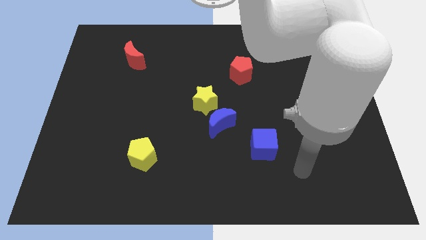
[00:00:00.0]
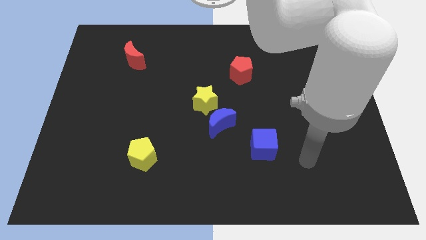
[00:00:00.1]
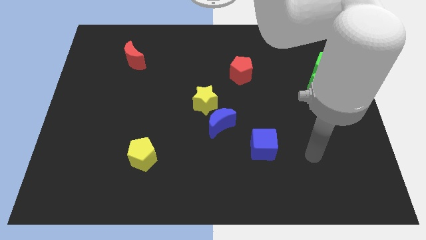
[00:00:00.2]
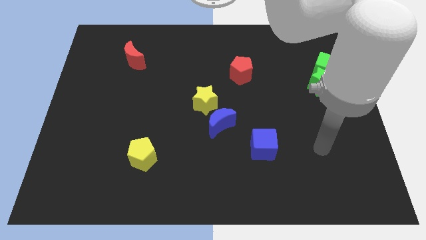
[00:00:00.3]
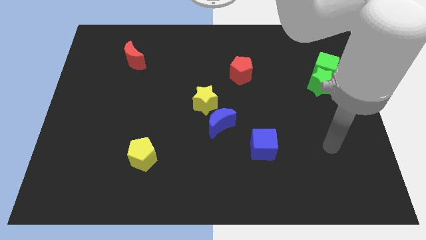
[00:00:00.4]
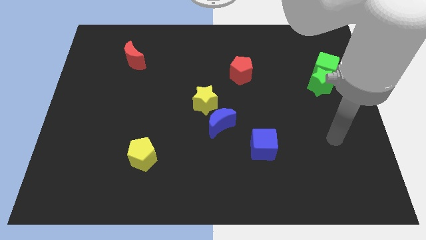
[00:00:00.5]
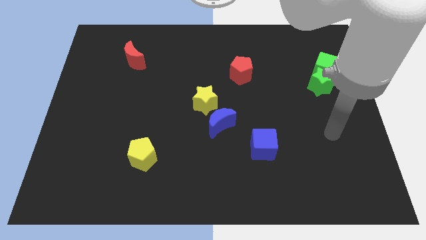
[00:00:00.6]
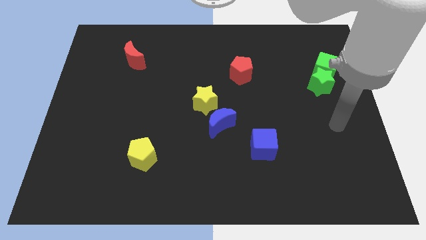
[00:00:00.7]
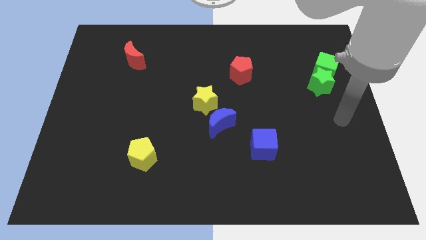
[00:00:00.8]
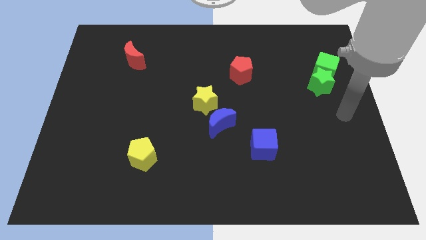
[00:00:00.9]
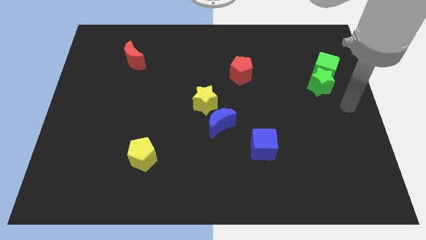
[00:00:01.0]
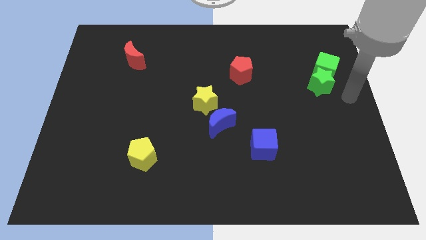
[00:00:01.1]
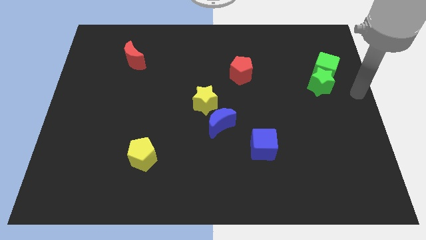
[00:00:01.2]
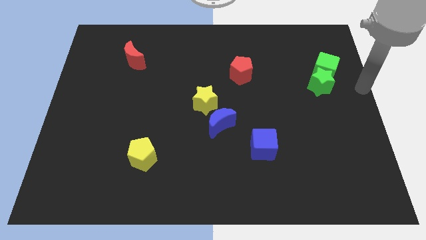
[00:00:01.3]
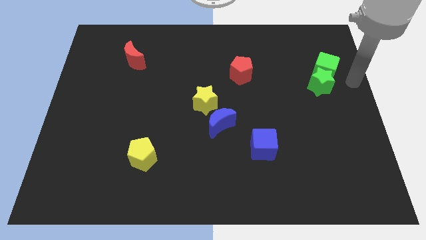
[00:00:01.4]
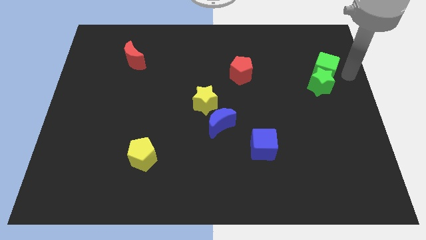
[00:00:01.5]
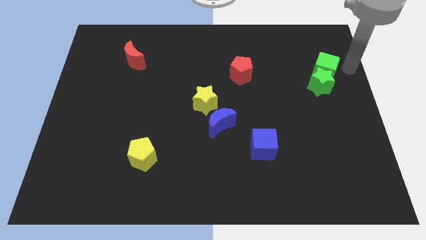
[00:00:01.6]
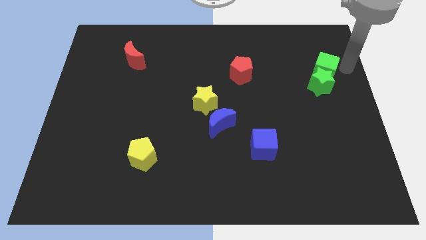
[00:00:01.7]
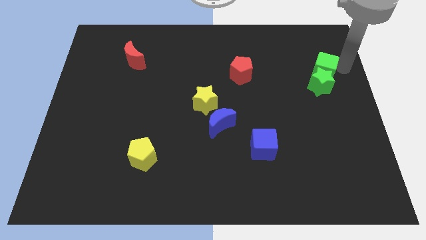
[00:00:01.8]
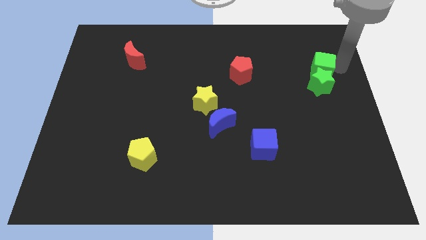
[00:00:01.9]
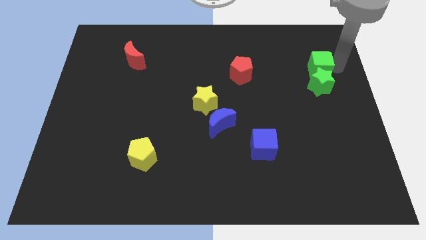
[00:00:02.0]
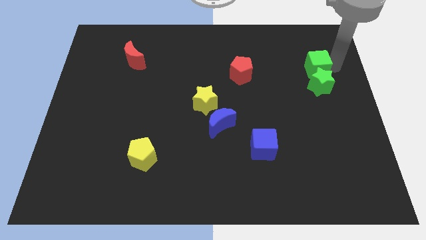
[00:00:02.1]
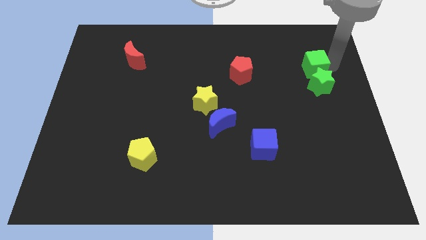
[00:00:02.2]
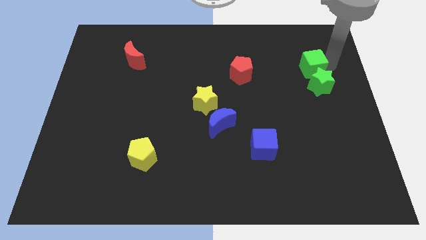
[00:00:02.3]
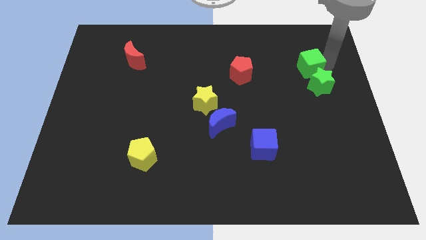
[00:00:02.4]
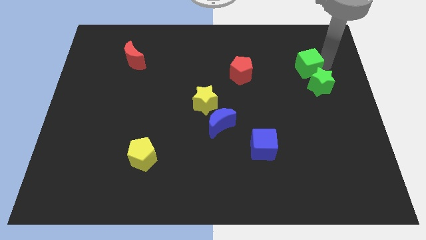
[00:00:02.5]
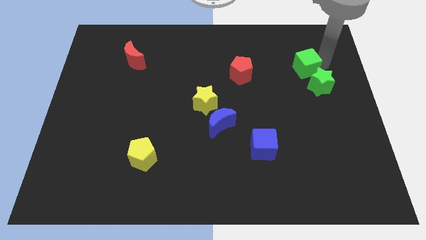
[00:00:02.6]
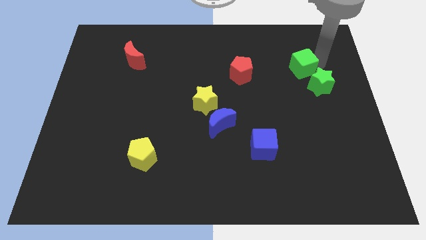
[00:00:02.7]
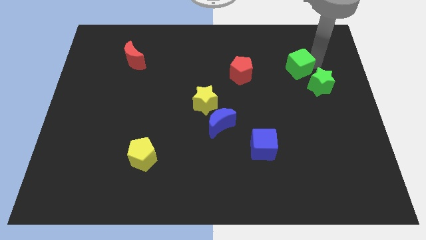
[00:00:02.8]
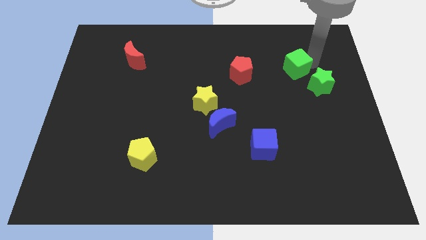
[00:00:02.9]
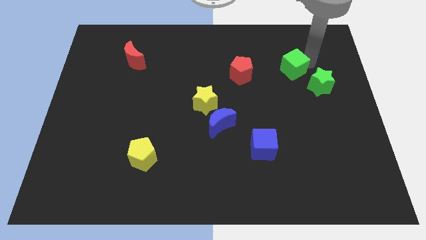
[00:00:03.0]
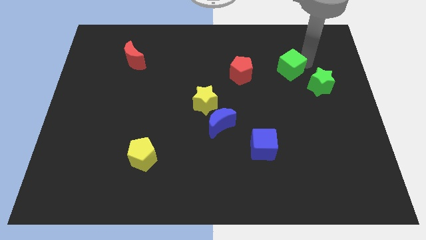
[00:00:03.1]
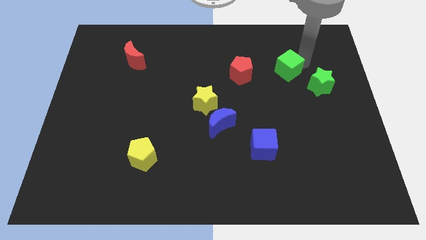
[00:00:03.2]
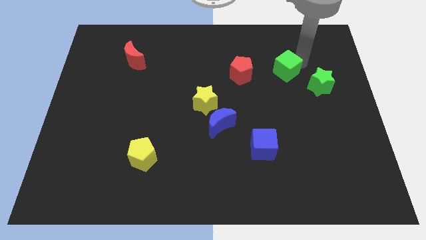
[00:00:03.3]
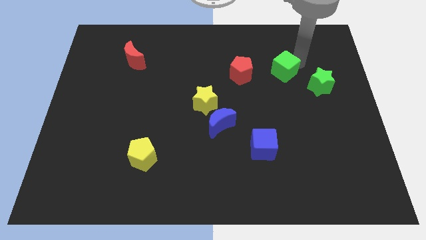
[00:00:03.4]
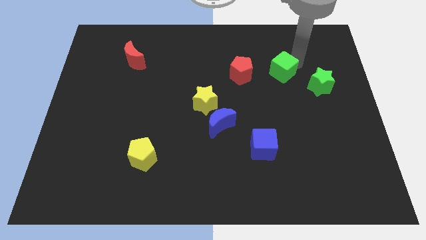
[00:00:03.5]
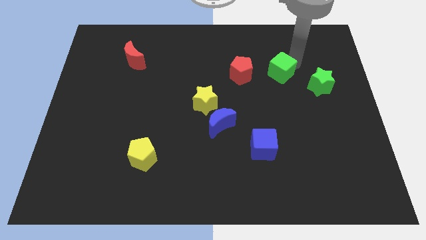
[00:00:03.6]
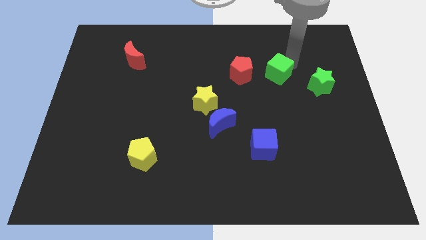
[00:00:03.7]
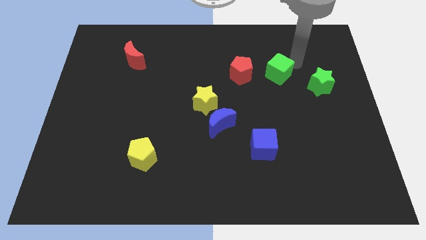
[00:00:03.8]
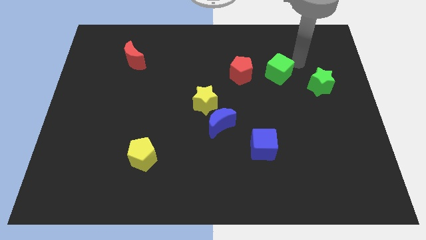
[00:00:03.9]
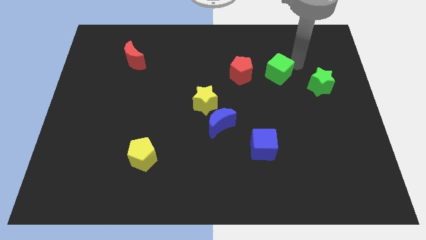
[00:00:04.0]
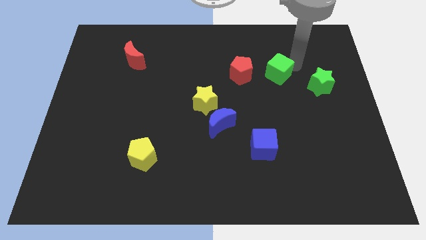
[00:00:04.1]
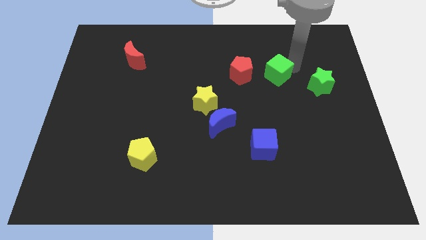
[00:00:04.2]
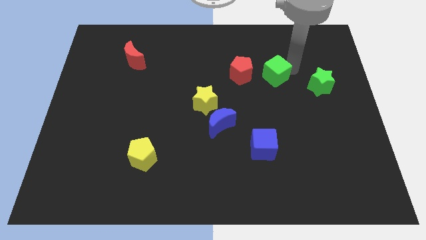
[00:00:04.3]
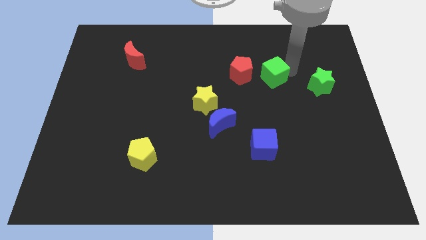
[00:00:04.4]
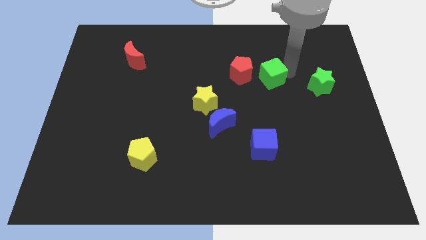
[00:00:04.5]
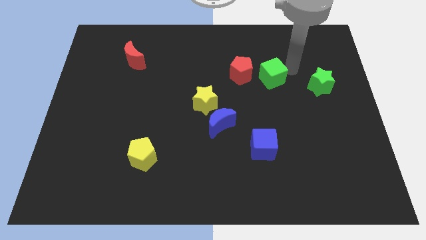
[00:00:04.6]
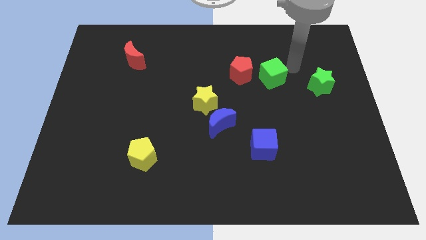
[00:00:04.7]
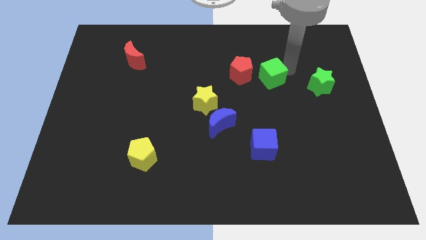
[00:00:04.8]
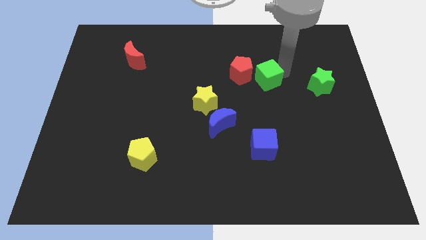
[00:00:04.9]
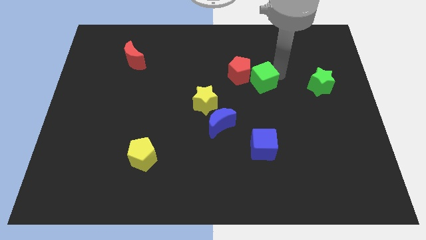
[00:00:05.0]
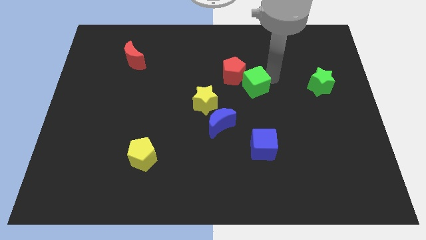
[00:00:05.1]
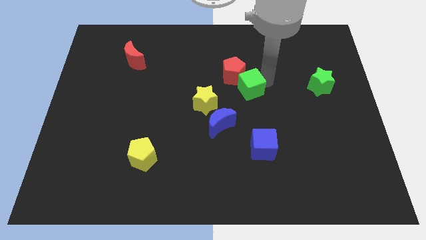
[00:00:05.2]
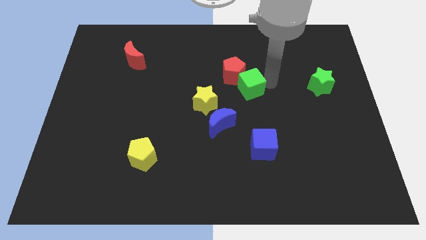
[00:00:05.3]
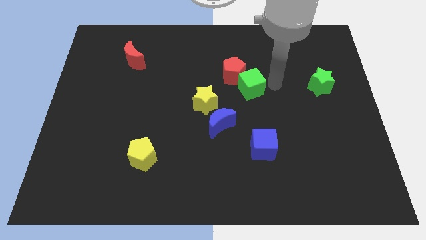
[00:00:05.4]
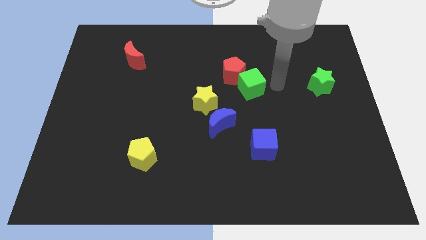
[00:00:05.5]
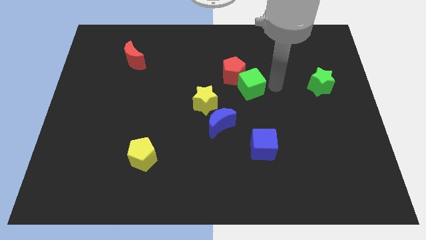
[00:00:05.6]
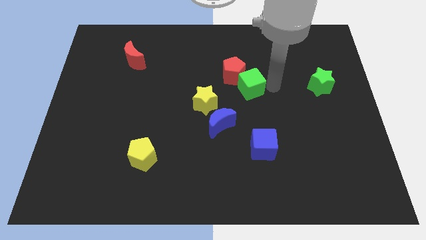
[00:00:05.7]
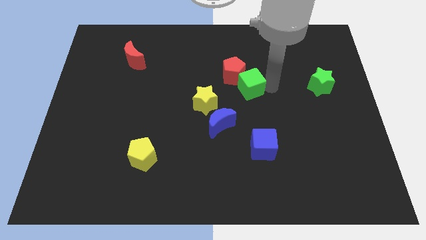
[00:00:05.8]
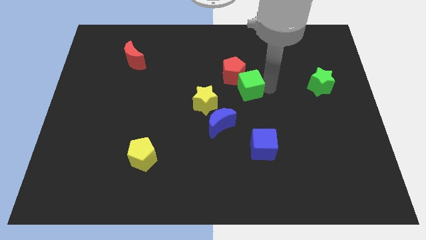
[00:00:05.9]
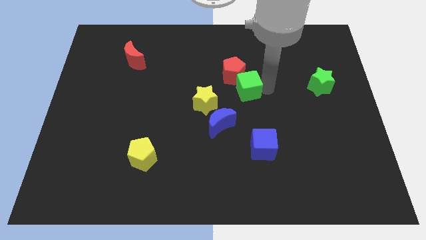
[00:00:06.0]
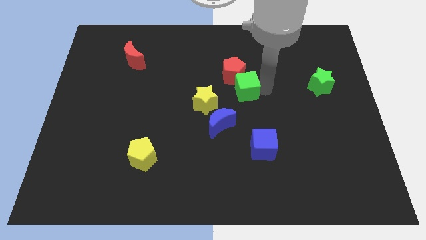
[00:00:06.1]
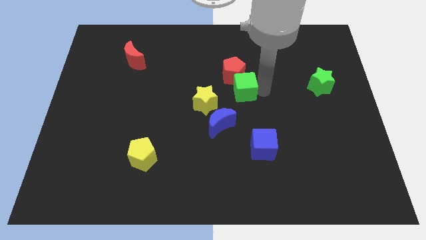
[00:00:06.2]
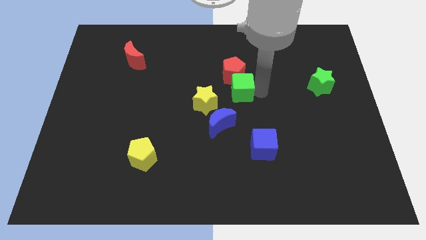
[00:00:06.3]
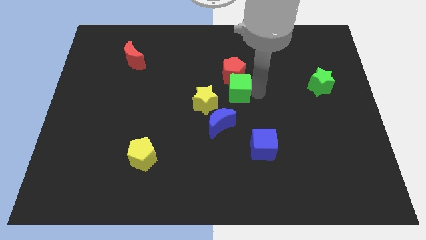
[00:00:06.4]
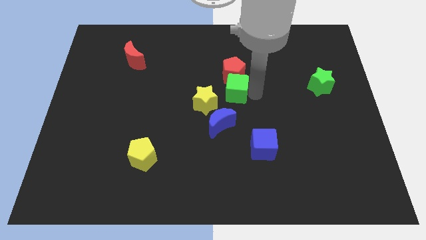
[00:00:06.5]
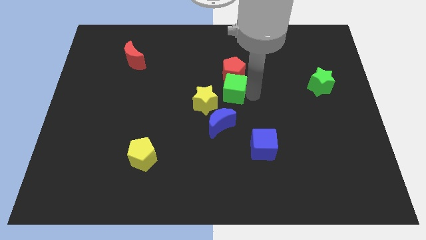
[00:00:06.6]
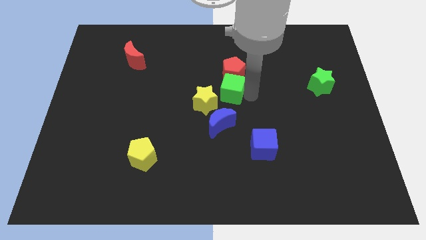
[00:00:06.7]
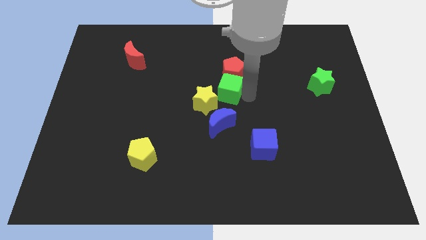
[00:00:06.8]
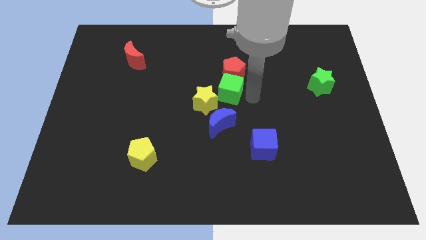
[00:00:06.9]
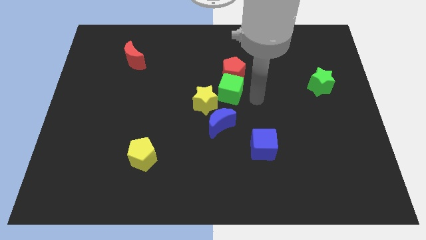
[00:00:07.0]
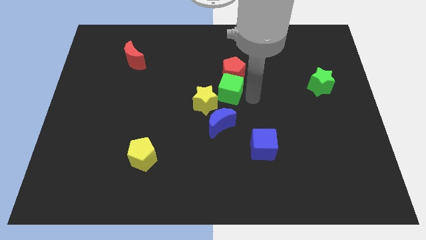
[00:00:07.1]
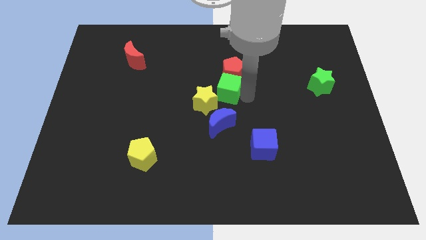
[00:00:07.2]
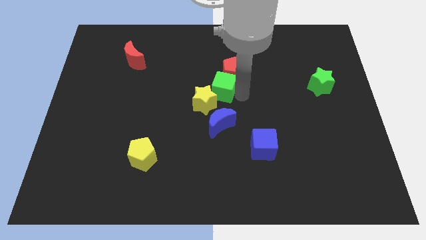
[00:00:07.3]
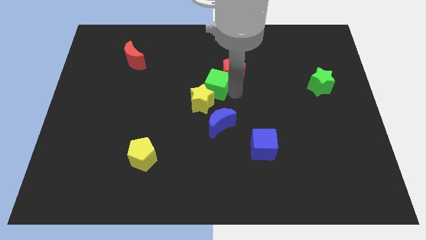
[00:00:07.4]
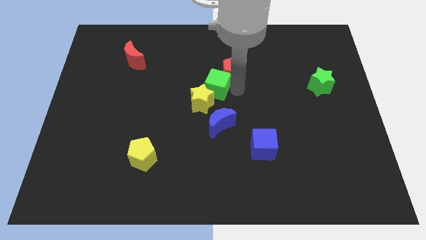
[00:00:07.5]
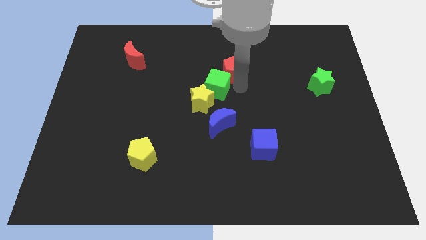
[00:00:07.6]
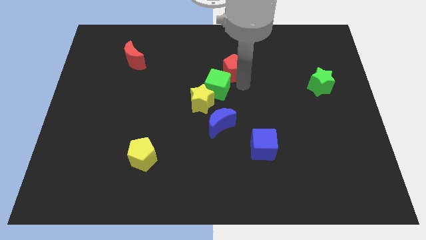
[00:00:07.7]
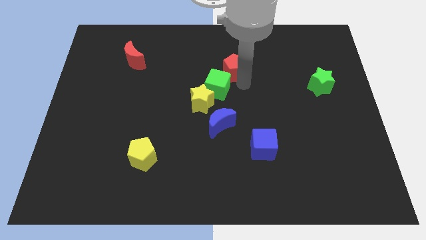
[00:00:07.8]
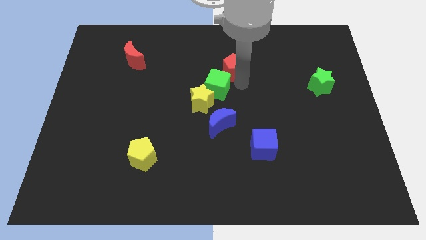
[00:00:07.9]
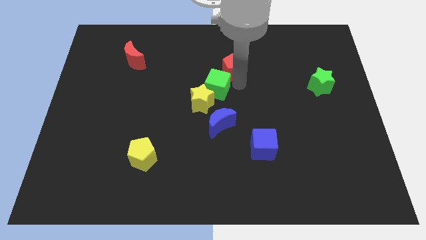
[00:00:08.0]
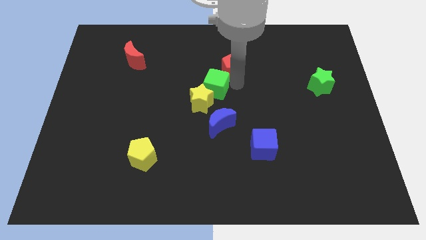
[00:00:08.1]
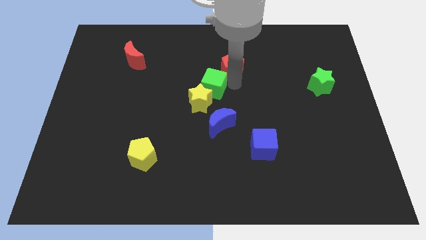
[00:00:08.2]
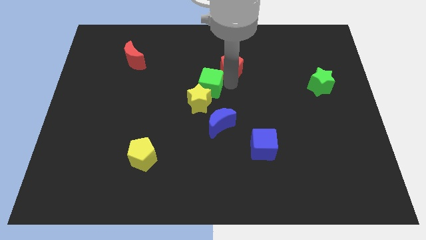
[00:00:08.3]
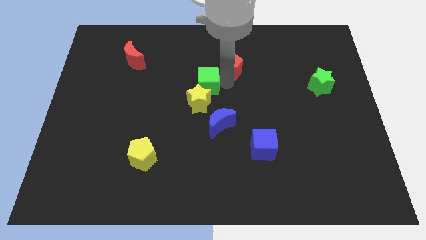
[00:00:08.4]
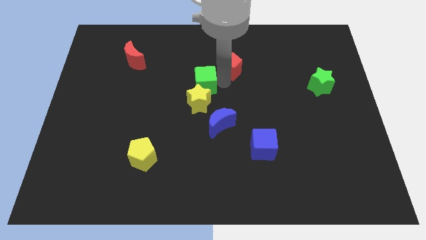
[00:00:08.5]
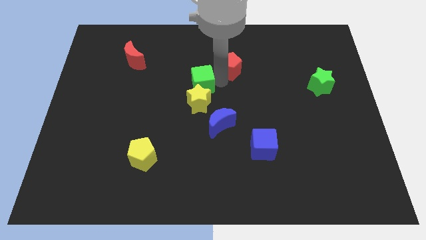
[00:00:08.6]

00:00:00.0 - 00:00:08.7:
slide the green cube to the top left side of the yellow star
